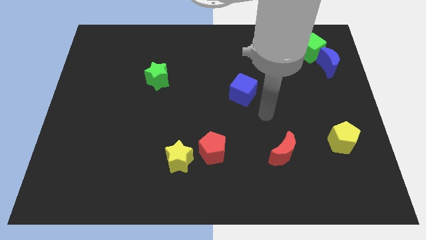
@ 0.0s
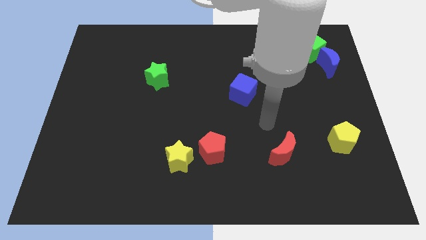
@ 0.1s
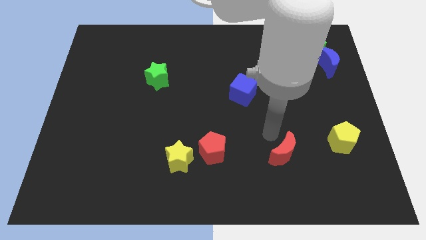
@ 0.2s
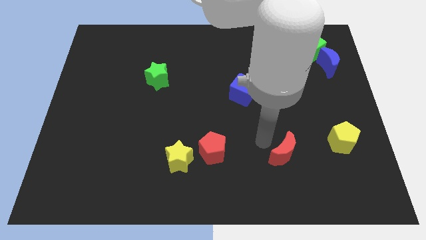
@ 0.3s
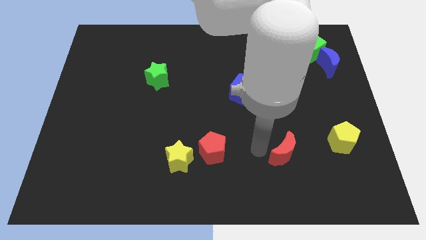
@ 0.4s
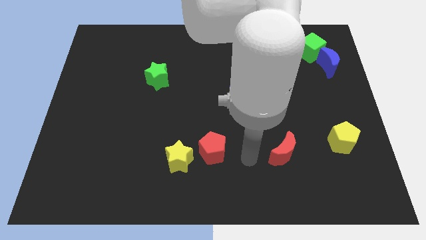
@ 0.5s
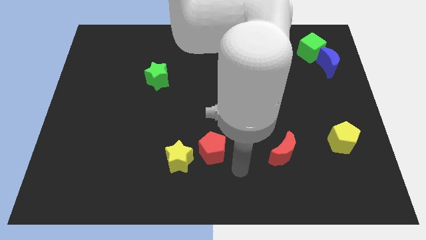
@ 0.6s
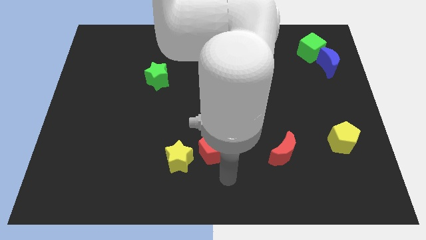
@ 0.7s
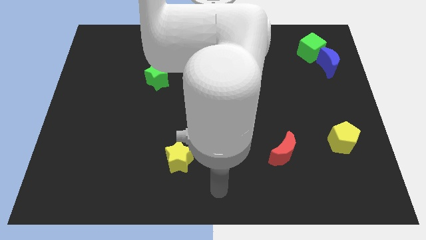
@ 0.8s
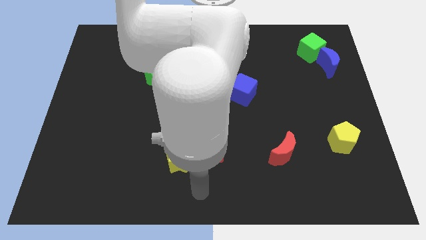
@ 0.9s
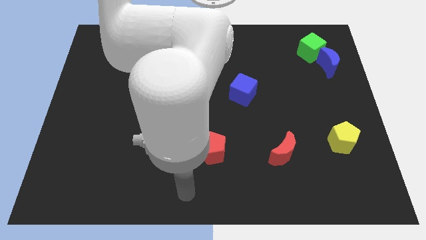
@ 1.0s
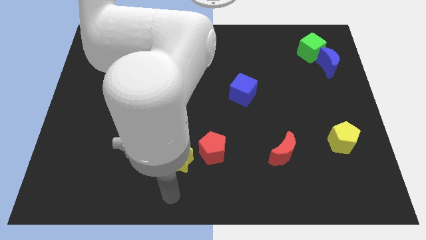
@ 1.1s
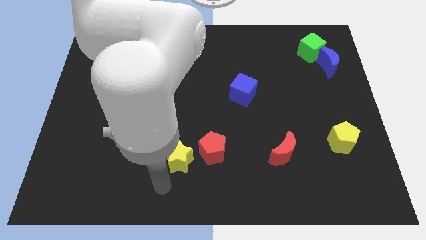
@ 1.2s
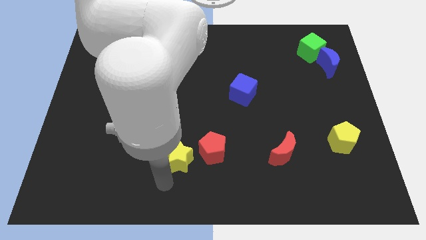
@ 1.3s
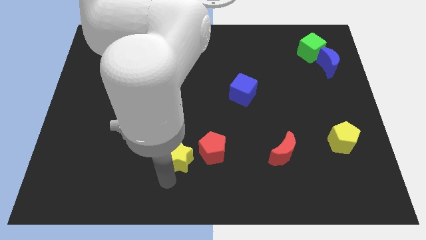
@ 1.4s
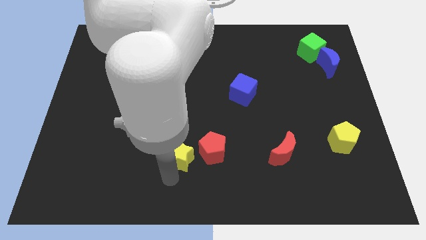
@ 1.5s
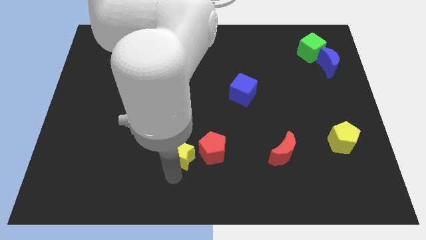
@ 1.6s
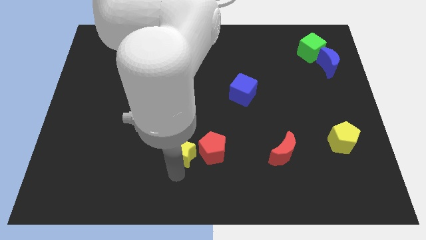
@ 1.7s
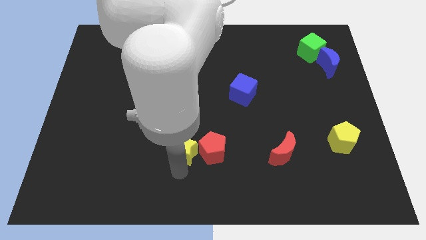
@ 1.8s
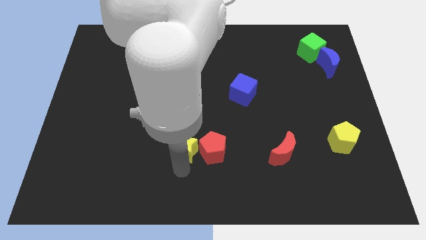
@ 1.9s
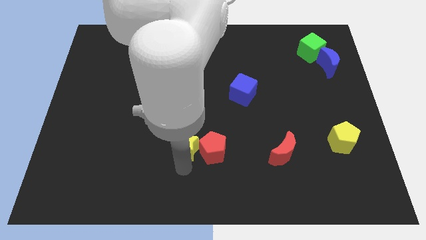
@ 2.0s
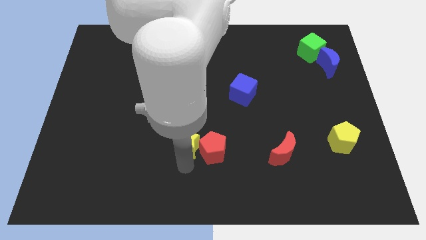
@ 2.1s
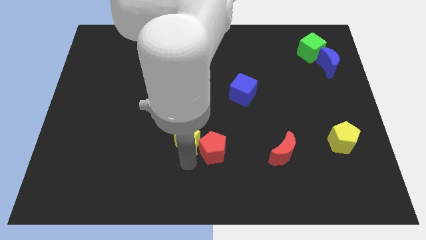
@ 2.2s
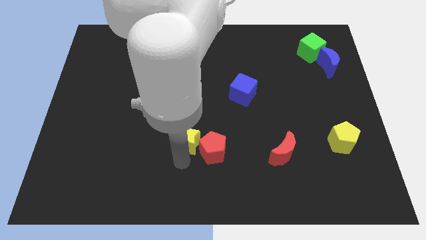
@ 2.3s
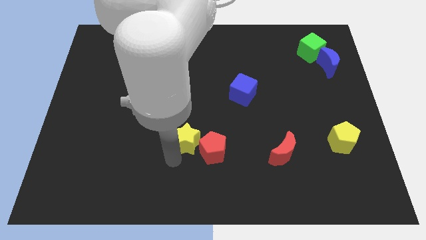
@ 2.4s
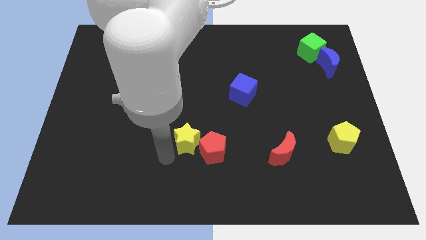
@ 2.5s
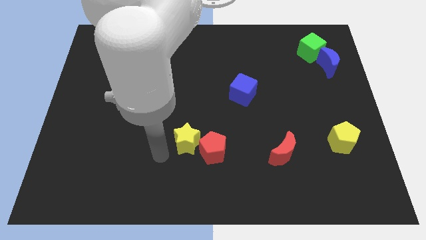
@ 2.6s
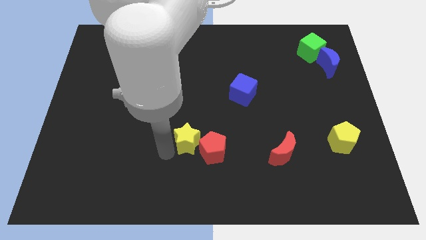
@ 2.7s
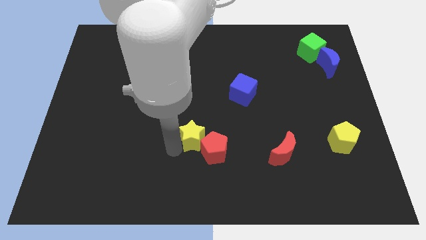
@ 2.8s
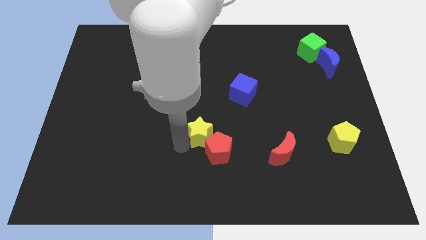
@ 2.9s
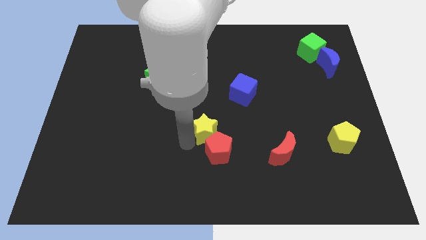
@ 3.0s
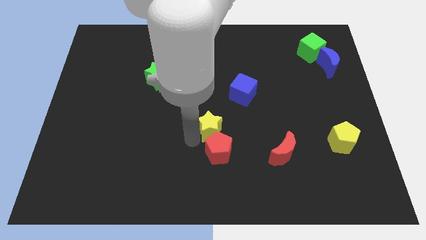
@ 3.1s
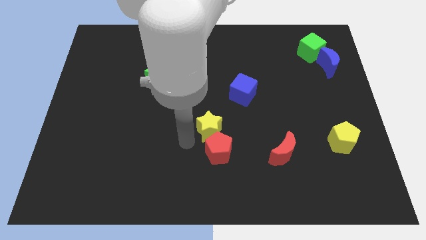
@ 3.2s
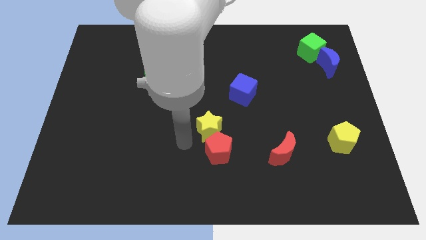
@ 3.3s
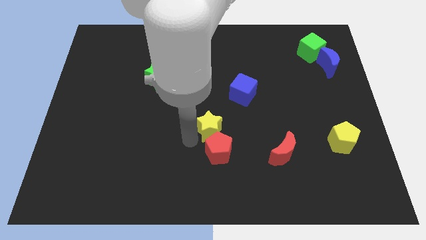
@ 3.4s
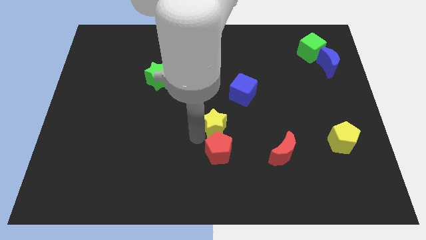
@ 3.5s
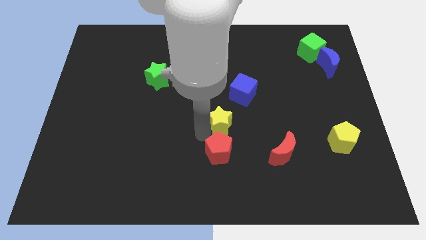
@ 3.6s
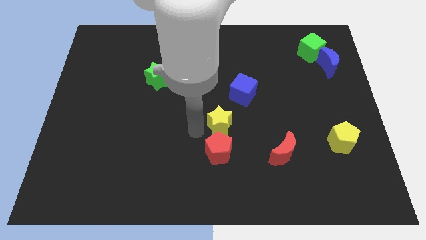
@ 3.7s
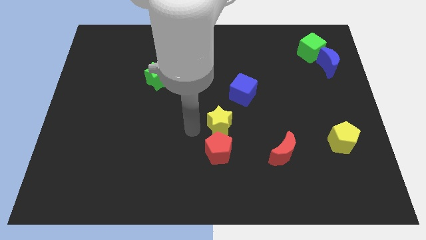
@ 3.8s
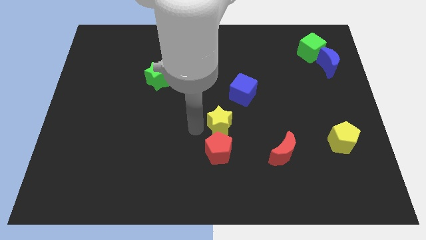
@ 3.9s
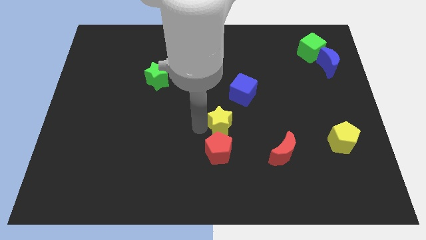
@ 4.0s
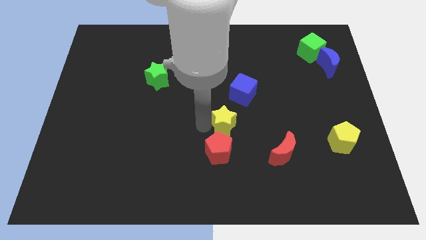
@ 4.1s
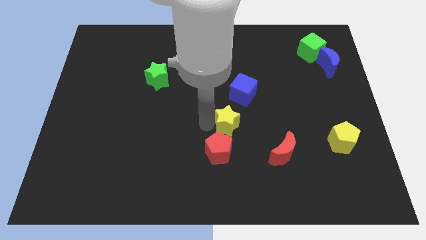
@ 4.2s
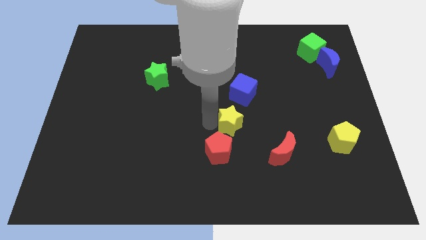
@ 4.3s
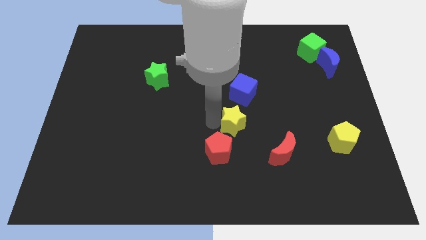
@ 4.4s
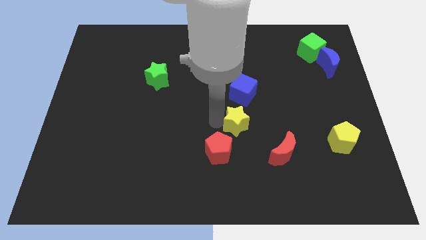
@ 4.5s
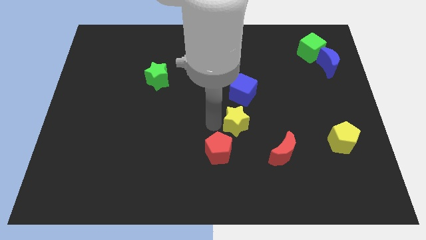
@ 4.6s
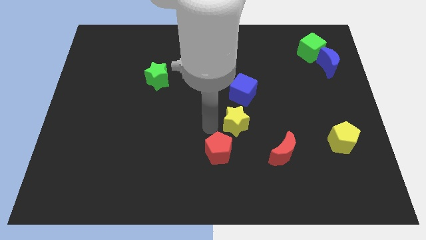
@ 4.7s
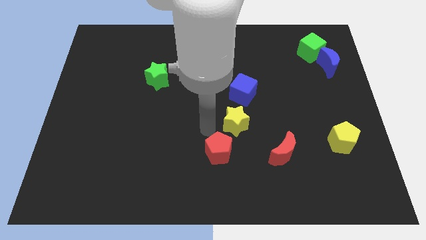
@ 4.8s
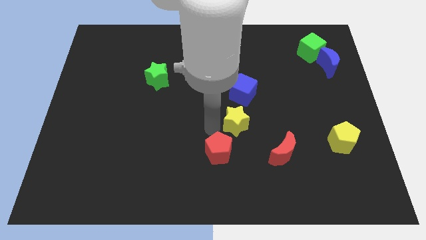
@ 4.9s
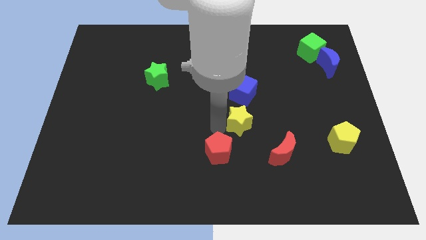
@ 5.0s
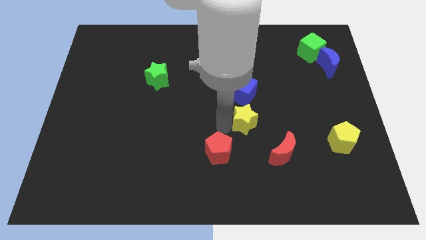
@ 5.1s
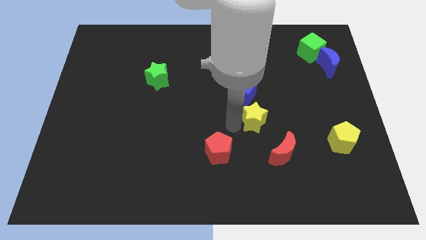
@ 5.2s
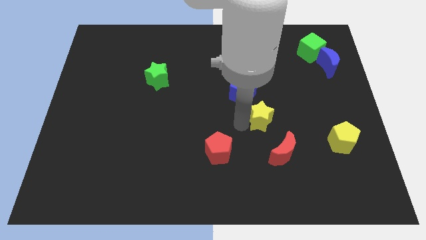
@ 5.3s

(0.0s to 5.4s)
push the yellow star above the red moon

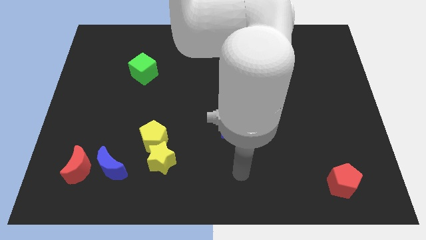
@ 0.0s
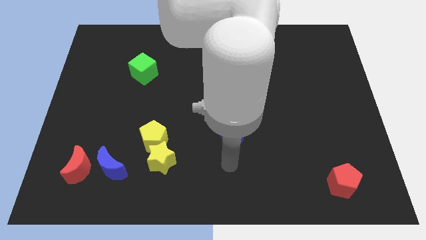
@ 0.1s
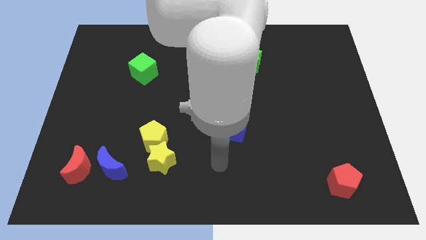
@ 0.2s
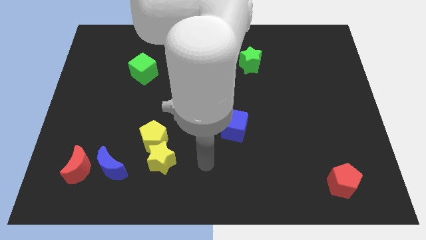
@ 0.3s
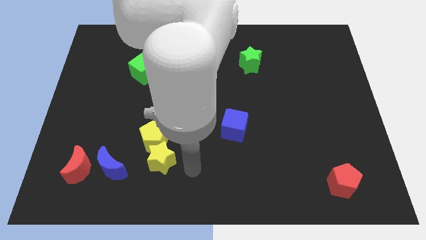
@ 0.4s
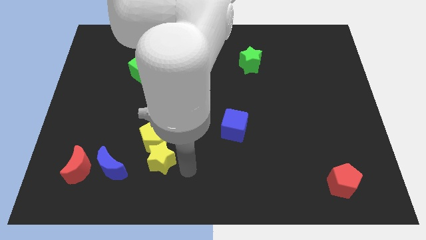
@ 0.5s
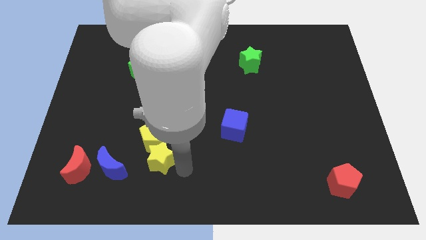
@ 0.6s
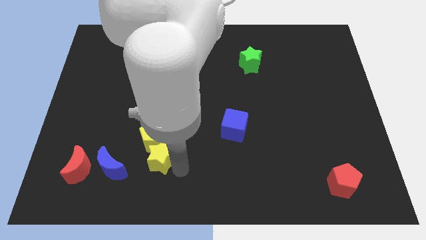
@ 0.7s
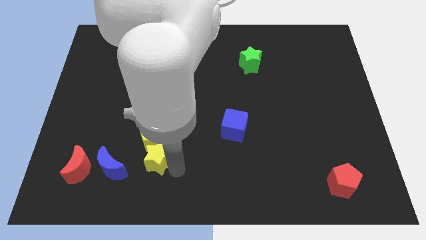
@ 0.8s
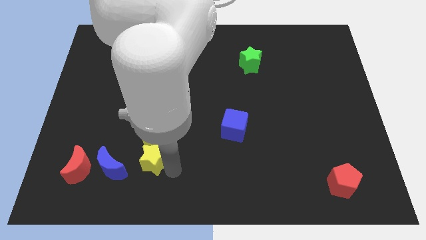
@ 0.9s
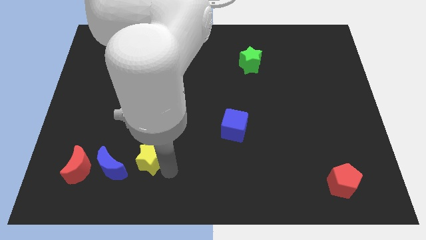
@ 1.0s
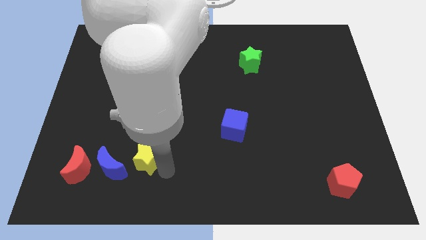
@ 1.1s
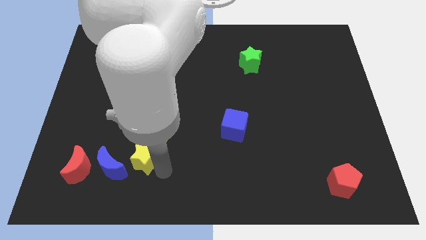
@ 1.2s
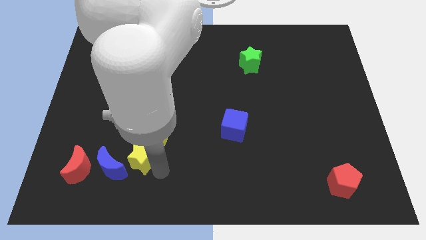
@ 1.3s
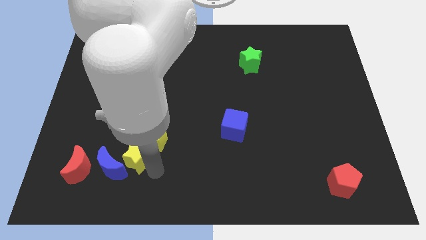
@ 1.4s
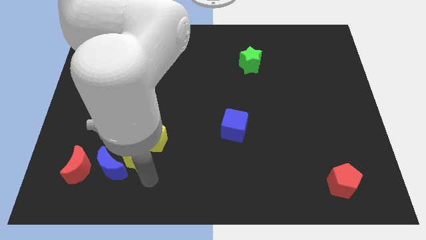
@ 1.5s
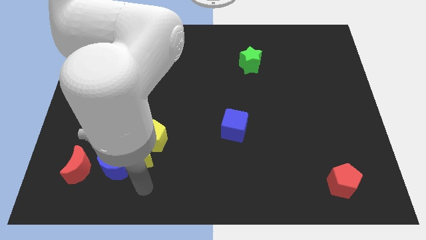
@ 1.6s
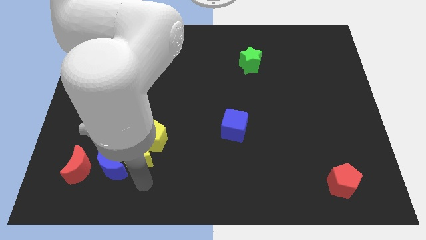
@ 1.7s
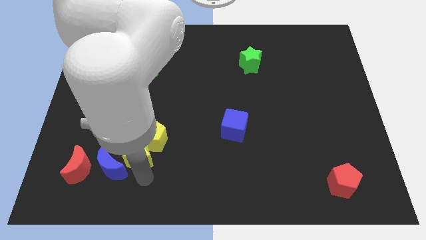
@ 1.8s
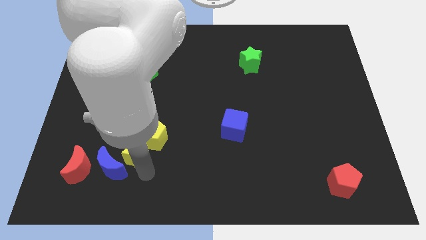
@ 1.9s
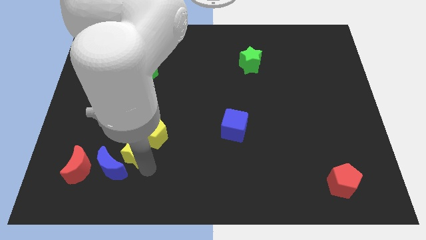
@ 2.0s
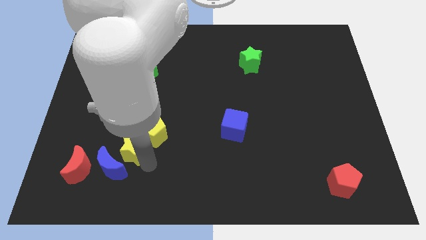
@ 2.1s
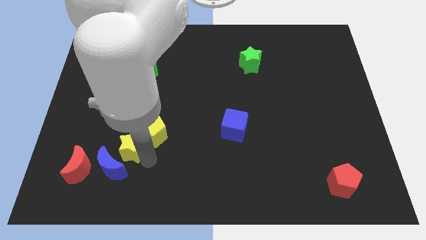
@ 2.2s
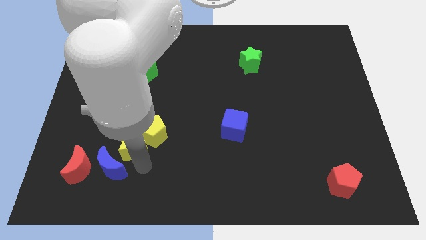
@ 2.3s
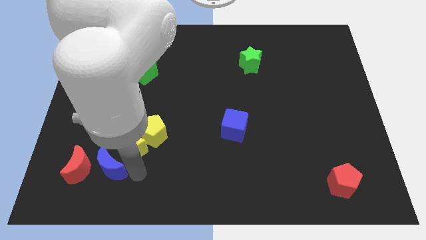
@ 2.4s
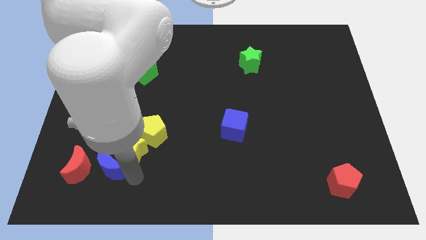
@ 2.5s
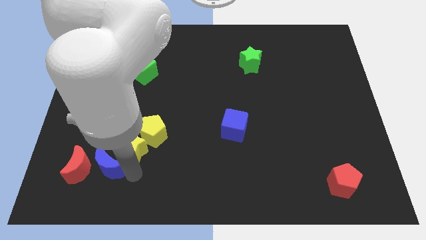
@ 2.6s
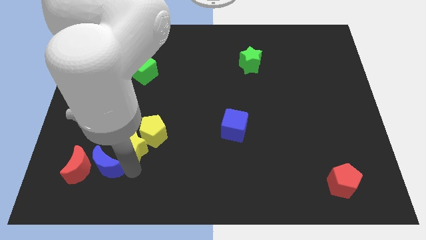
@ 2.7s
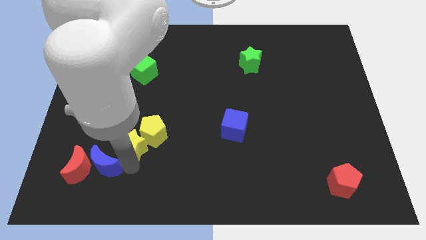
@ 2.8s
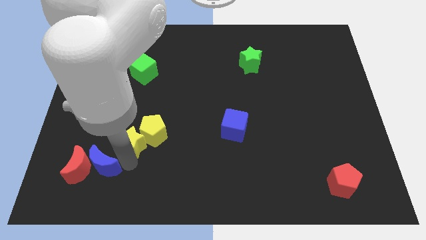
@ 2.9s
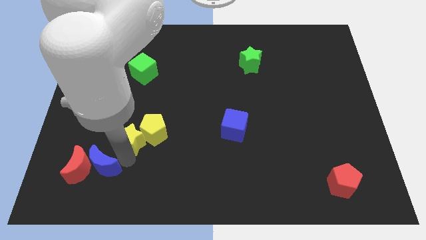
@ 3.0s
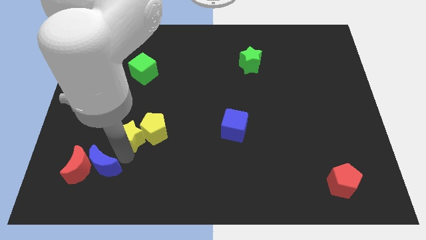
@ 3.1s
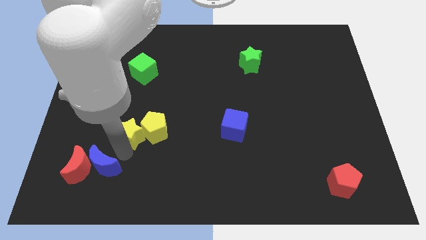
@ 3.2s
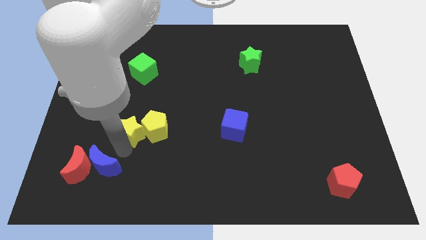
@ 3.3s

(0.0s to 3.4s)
slide the yellow star to the top left side of the yellow pentagon
